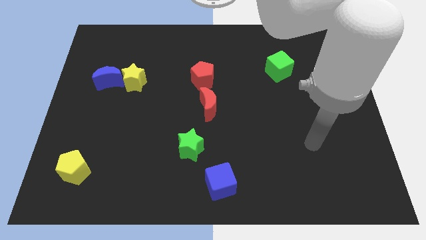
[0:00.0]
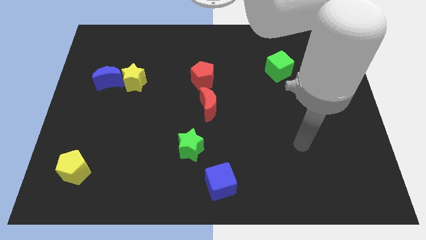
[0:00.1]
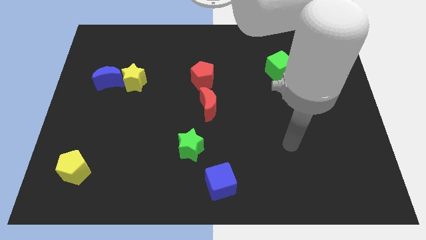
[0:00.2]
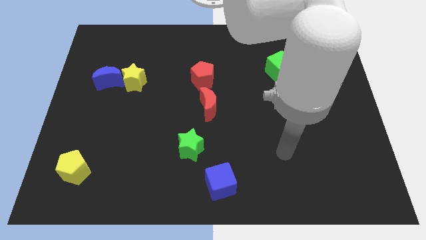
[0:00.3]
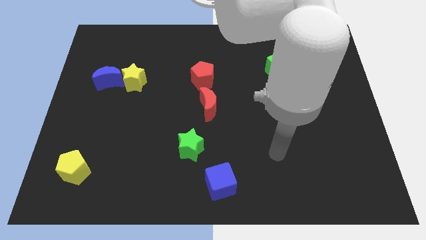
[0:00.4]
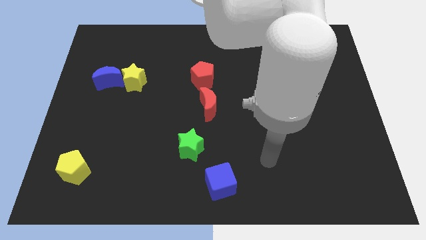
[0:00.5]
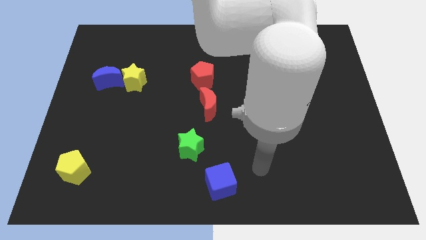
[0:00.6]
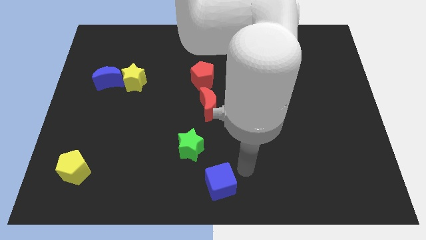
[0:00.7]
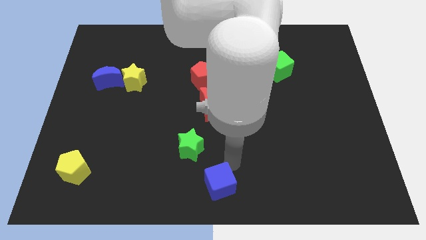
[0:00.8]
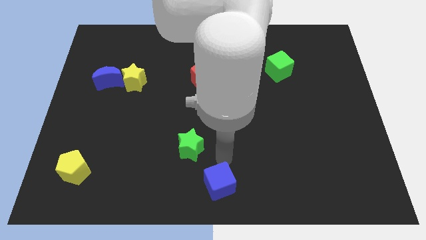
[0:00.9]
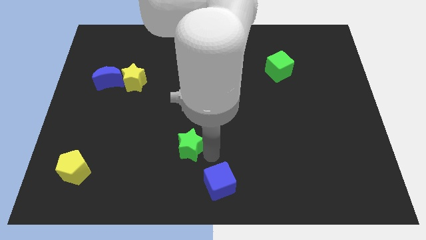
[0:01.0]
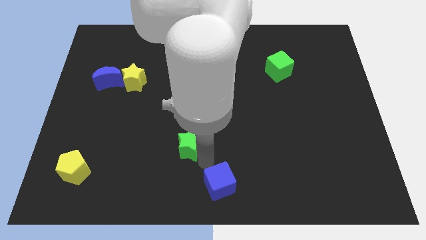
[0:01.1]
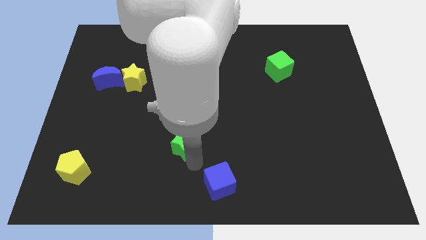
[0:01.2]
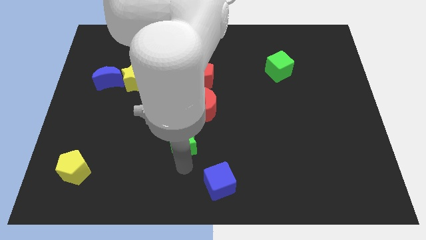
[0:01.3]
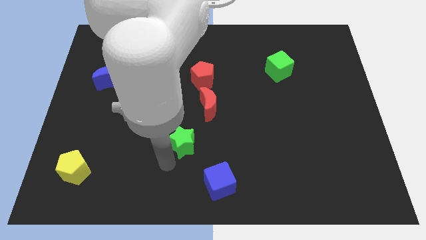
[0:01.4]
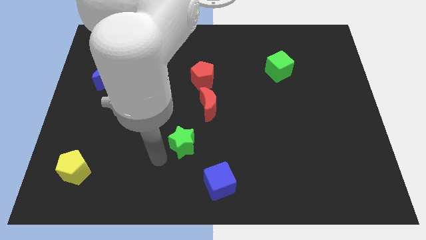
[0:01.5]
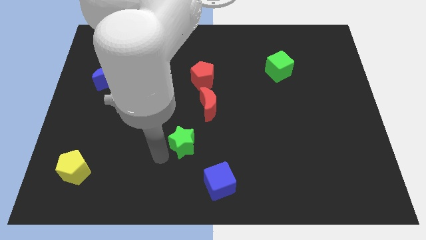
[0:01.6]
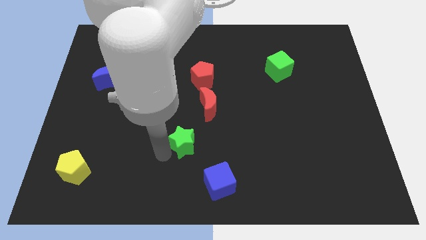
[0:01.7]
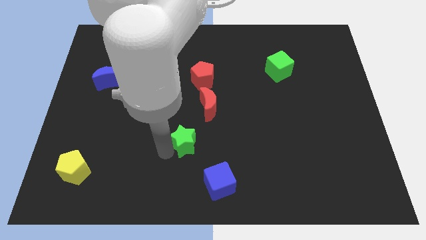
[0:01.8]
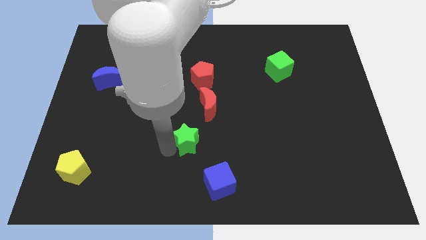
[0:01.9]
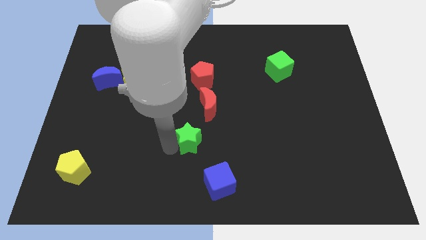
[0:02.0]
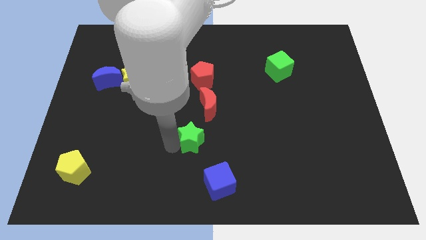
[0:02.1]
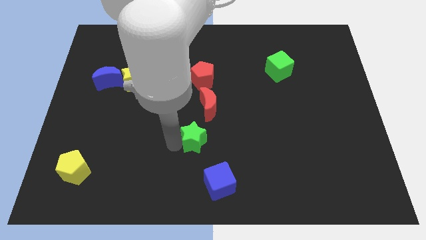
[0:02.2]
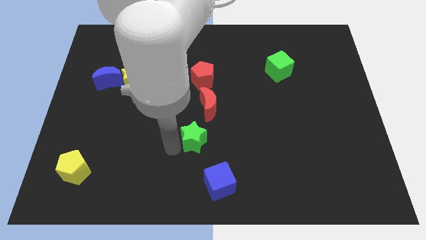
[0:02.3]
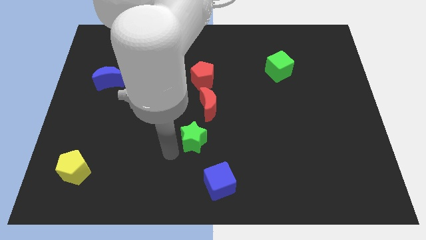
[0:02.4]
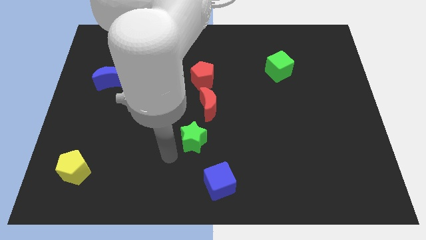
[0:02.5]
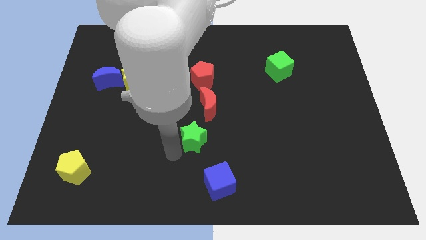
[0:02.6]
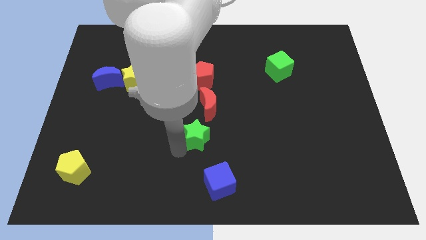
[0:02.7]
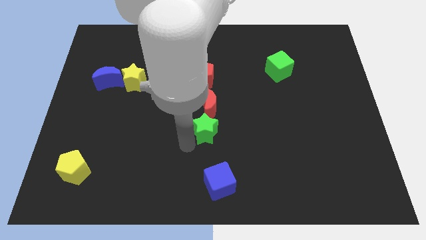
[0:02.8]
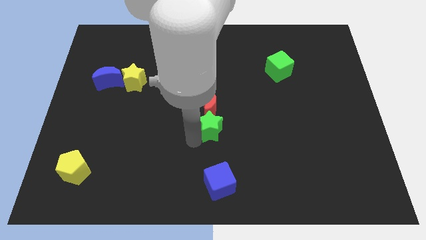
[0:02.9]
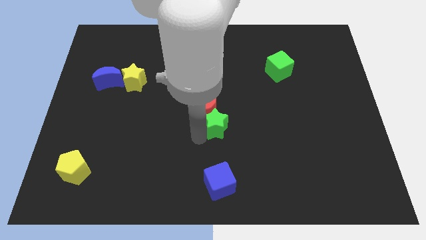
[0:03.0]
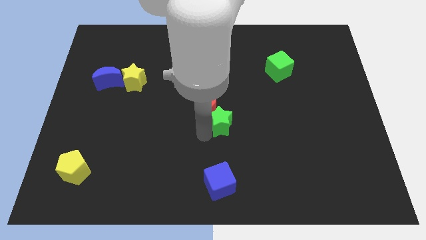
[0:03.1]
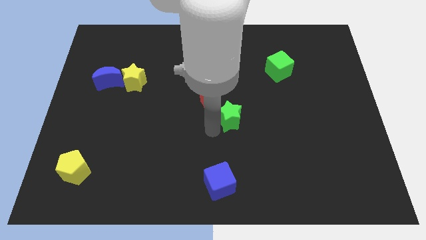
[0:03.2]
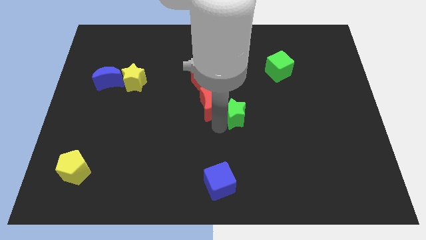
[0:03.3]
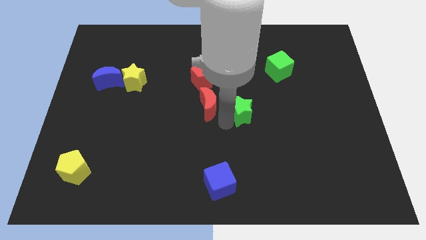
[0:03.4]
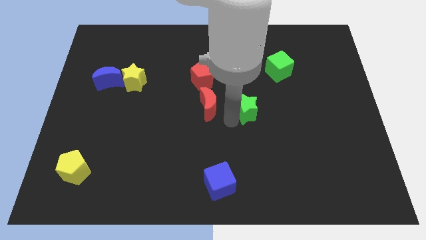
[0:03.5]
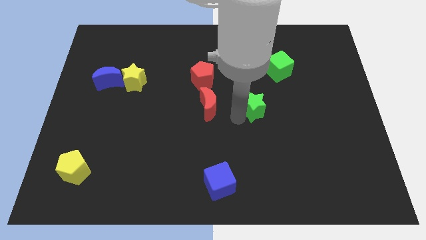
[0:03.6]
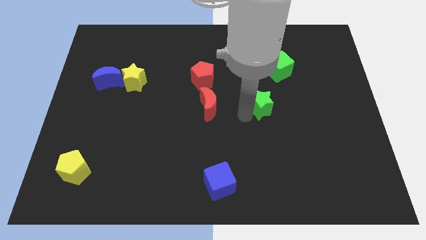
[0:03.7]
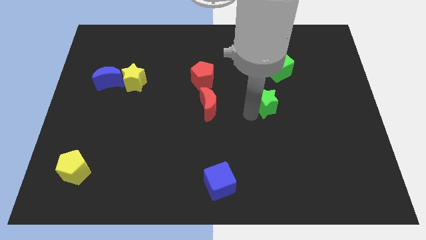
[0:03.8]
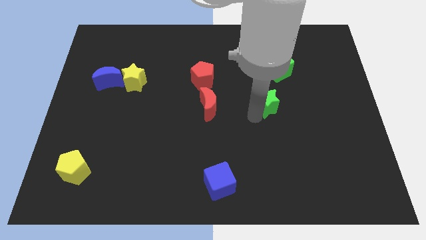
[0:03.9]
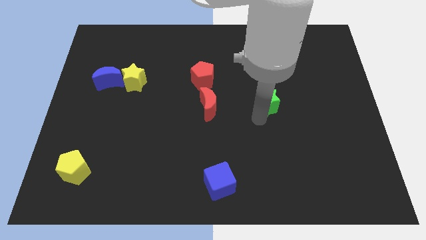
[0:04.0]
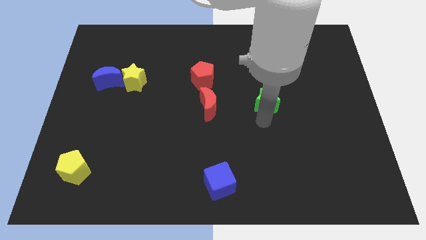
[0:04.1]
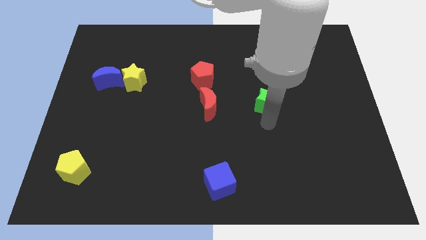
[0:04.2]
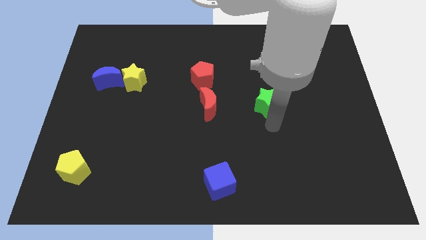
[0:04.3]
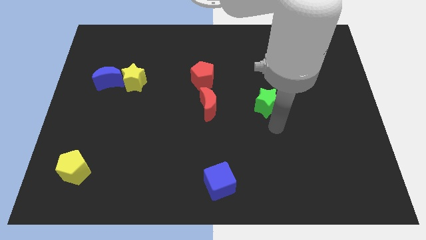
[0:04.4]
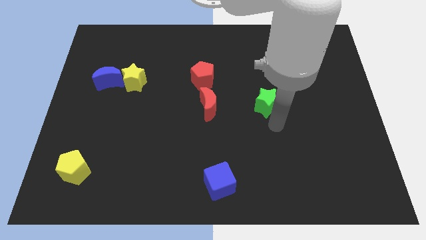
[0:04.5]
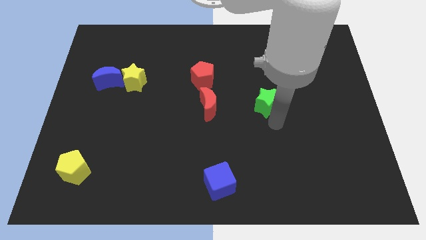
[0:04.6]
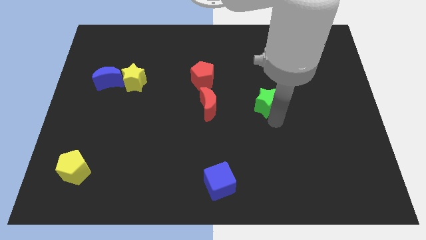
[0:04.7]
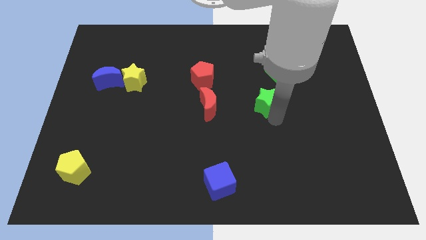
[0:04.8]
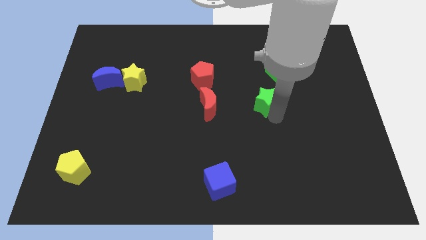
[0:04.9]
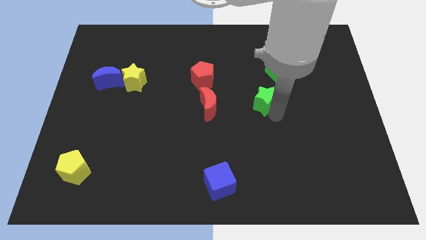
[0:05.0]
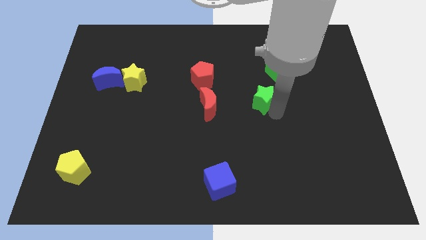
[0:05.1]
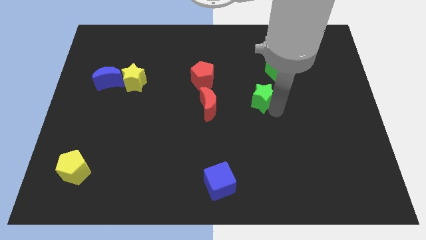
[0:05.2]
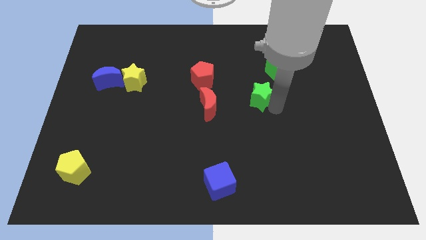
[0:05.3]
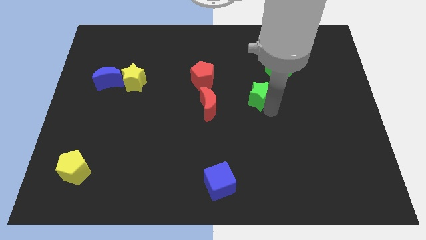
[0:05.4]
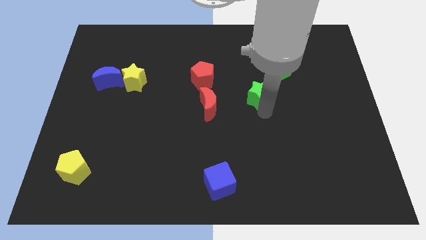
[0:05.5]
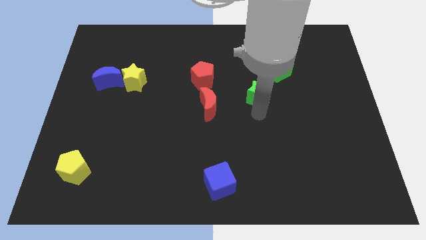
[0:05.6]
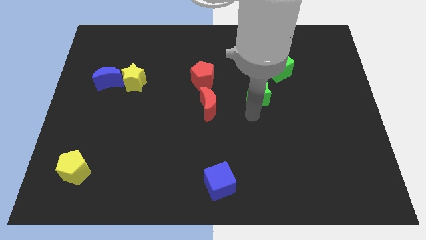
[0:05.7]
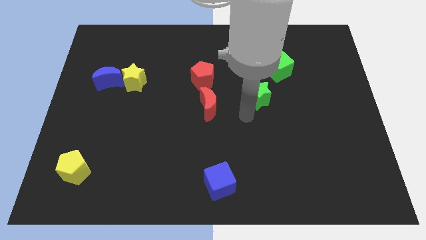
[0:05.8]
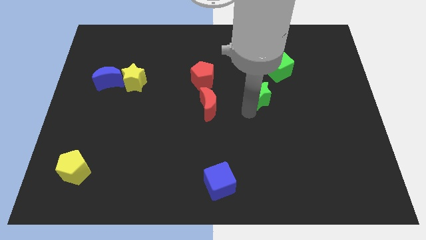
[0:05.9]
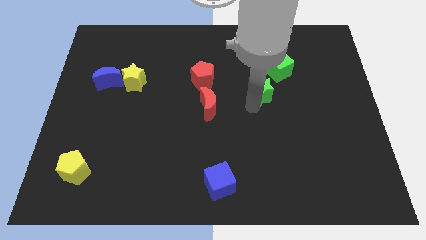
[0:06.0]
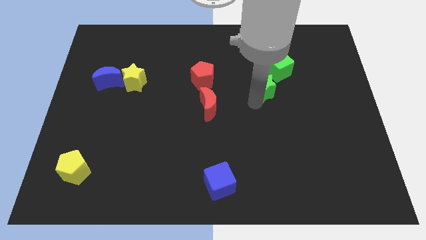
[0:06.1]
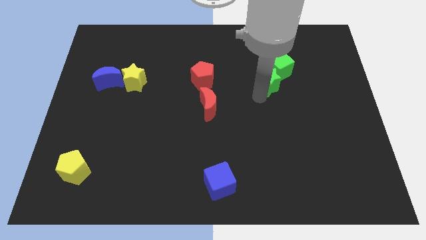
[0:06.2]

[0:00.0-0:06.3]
move the green star towards the green cube

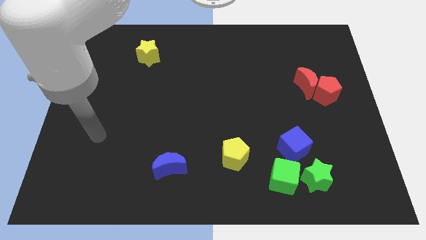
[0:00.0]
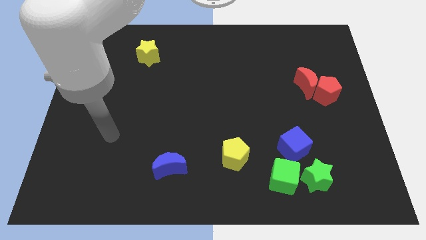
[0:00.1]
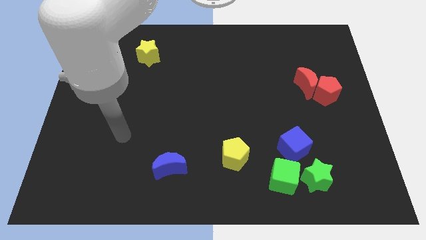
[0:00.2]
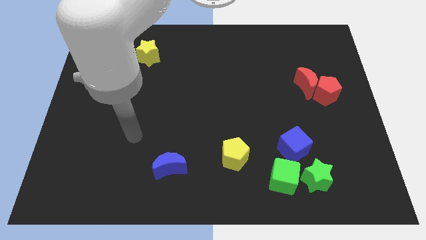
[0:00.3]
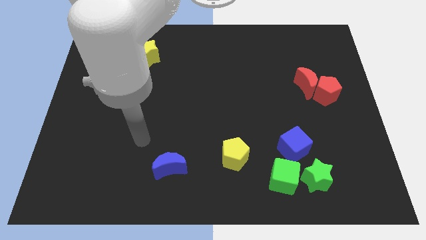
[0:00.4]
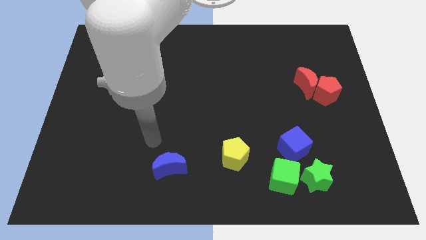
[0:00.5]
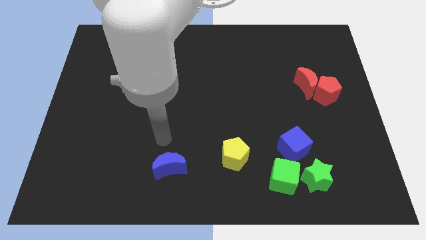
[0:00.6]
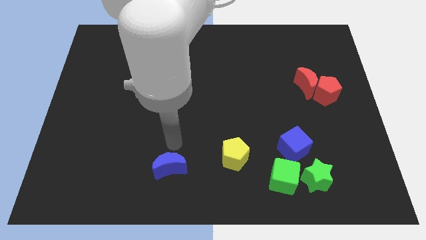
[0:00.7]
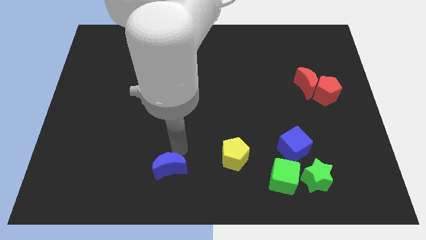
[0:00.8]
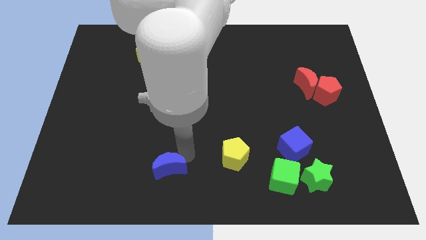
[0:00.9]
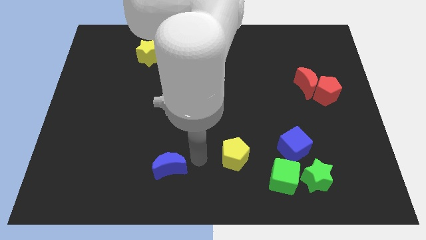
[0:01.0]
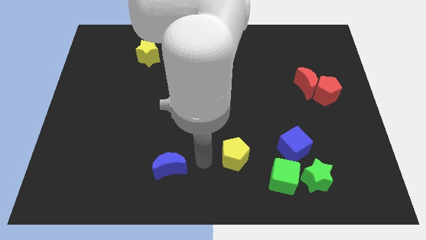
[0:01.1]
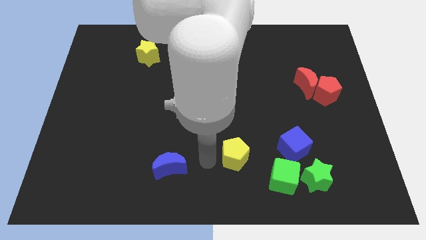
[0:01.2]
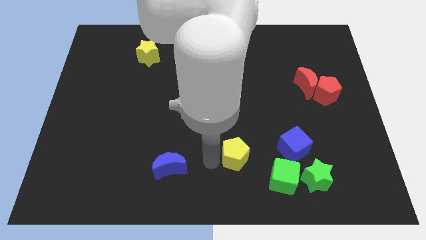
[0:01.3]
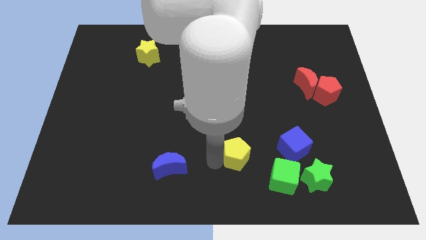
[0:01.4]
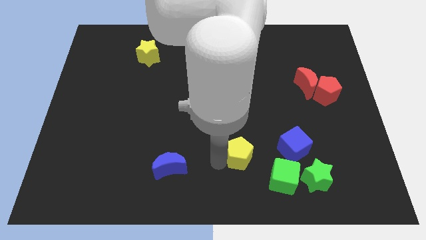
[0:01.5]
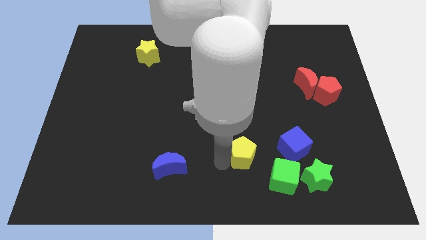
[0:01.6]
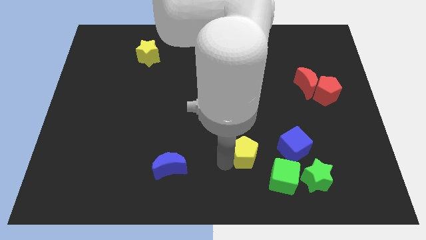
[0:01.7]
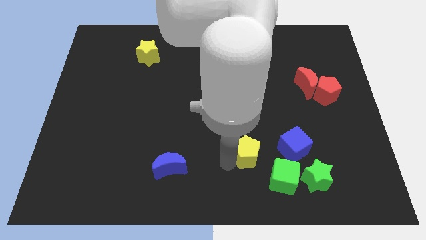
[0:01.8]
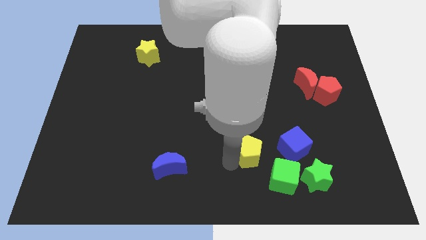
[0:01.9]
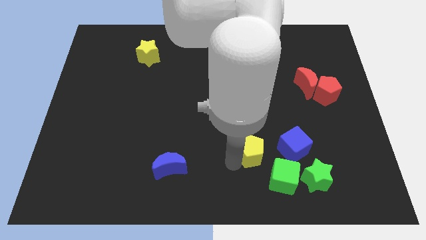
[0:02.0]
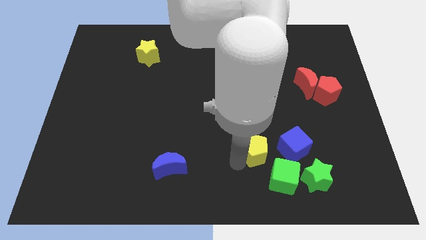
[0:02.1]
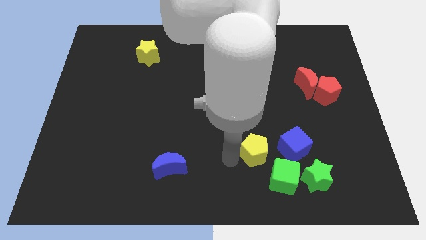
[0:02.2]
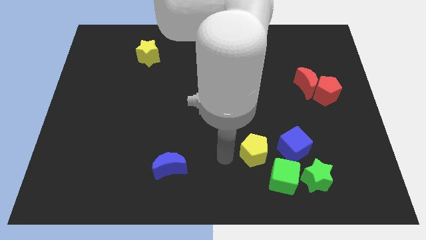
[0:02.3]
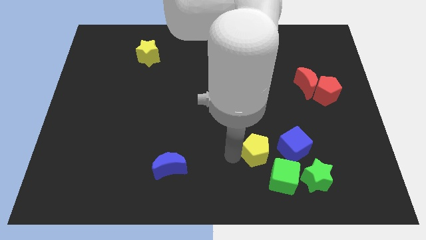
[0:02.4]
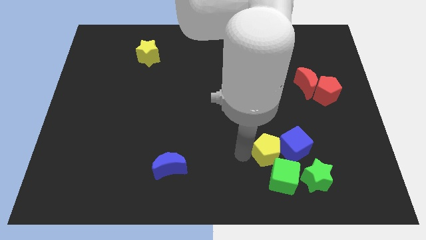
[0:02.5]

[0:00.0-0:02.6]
push the yellow pentagon close to the blue cube
